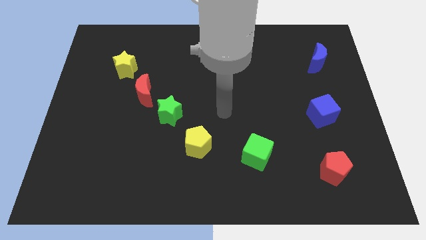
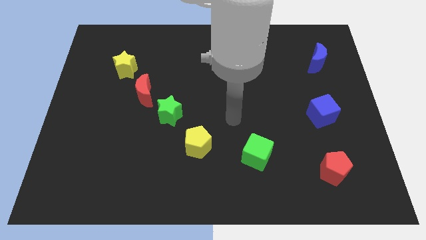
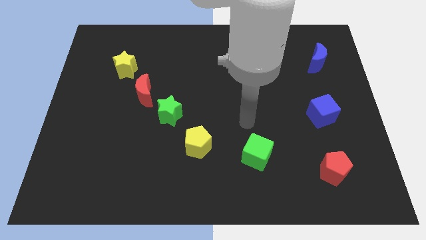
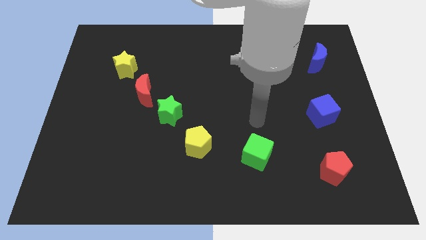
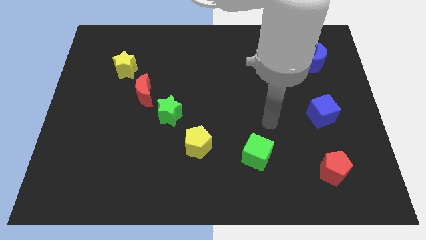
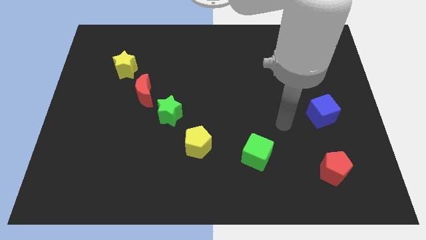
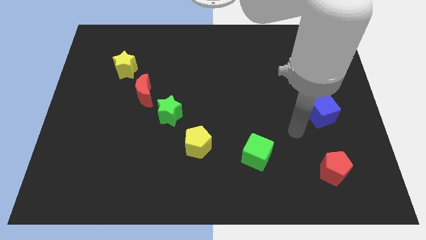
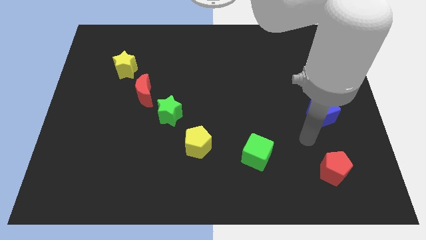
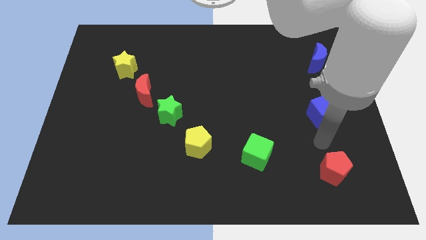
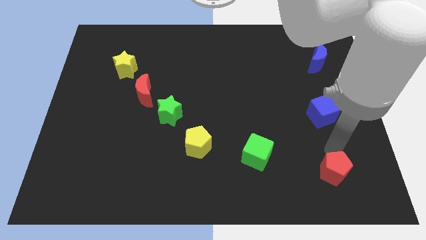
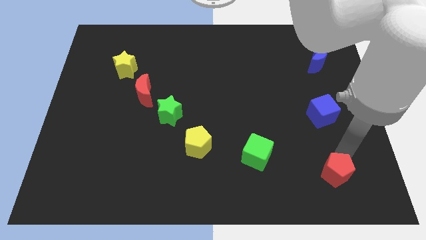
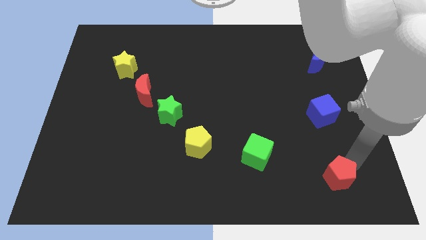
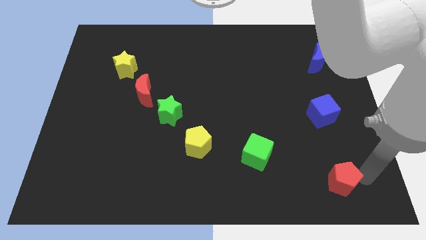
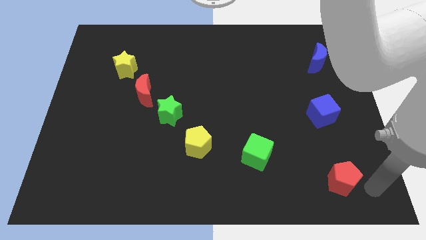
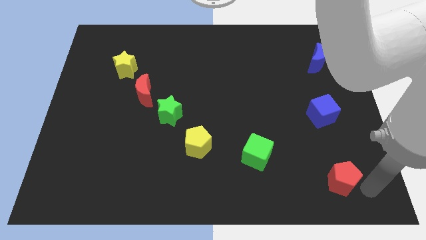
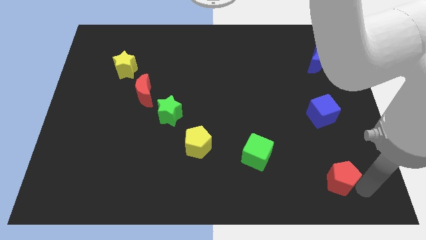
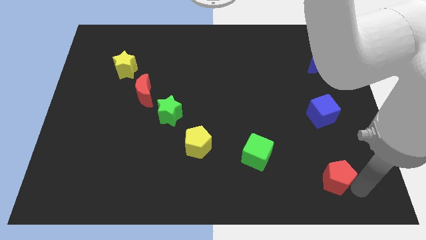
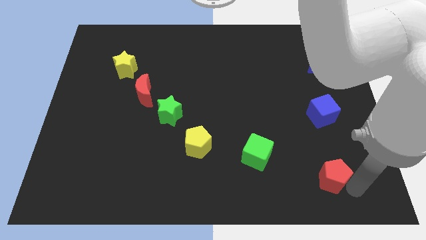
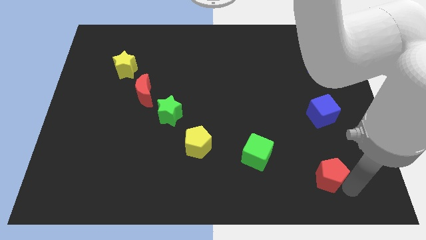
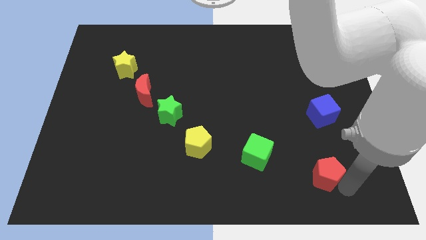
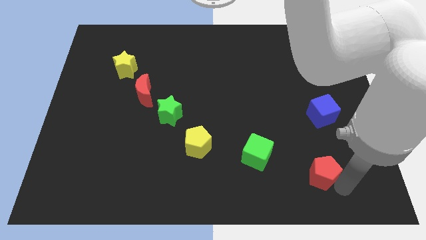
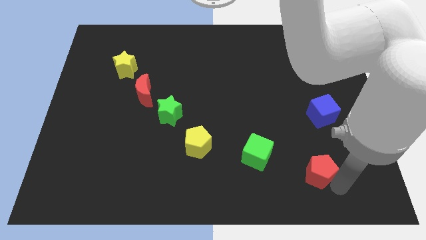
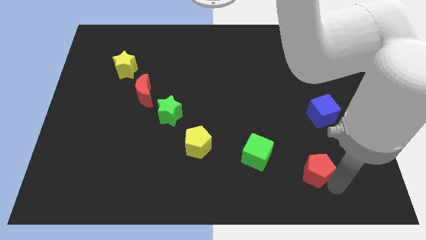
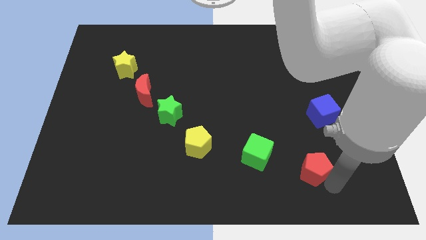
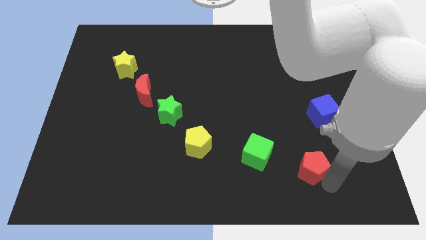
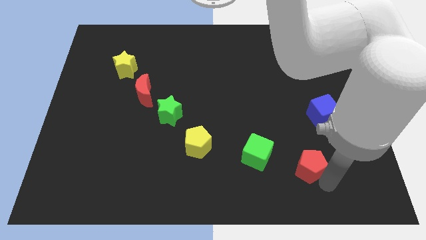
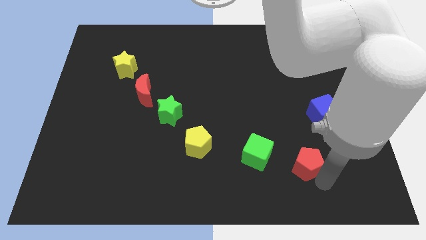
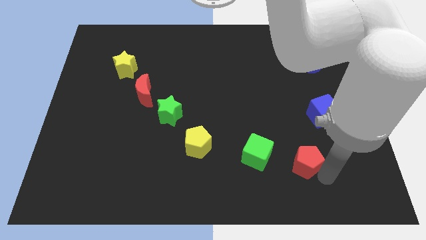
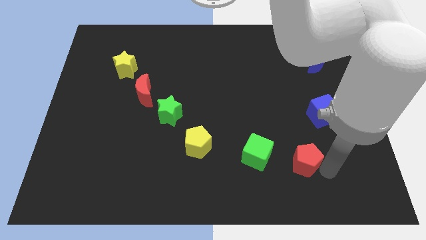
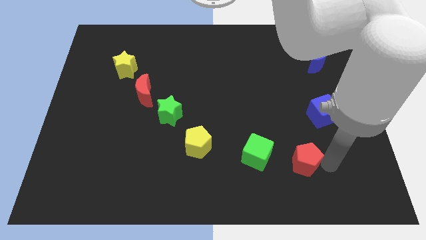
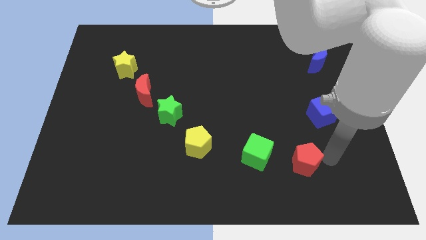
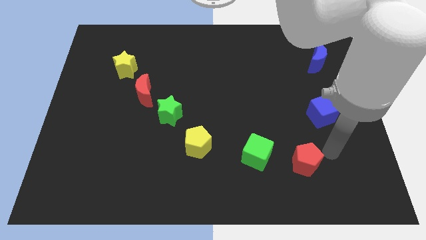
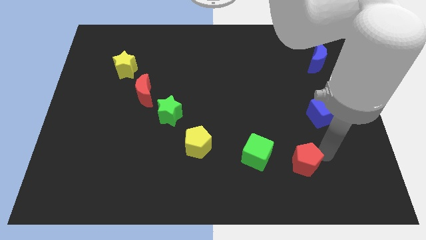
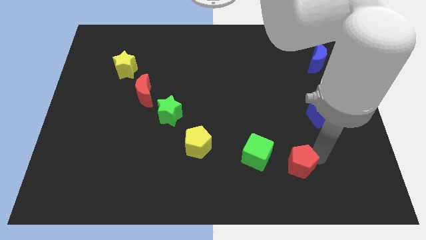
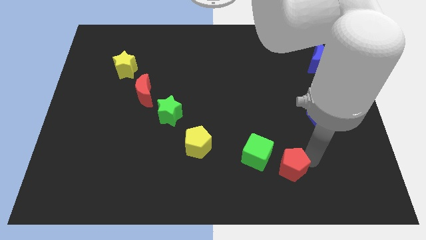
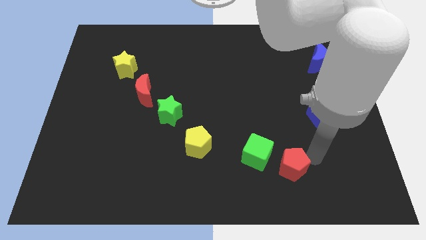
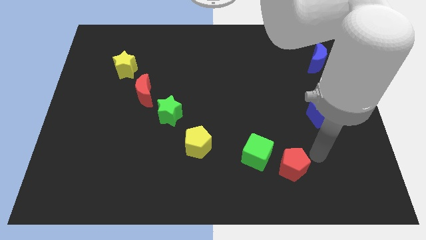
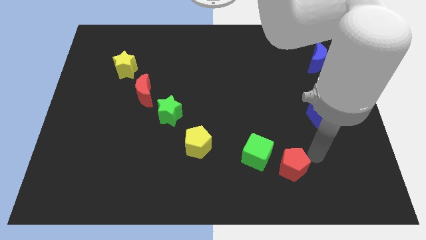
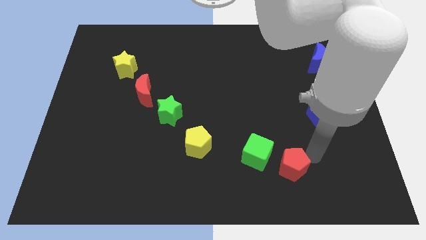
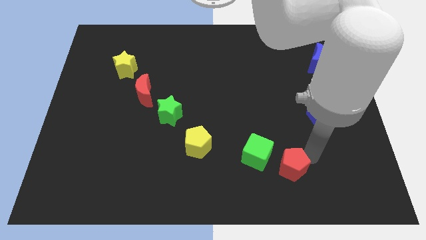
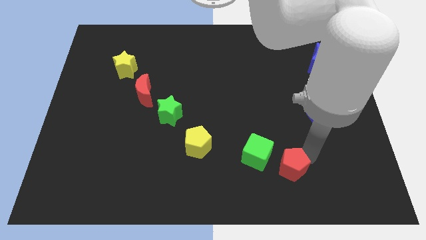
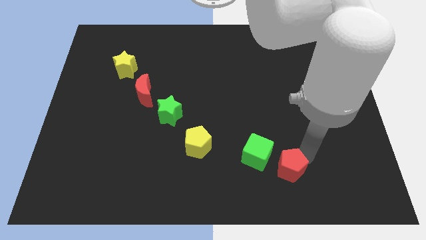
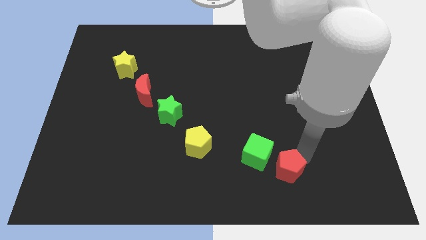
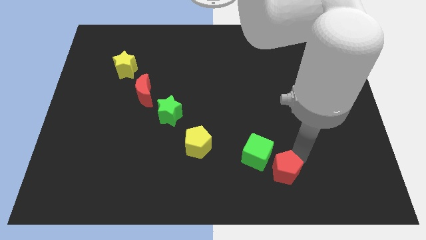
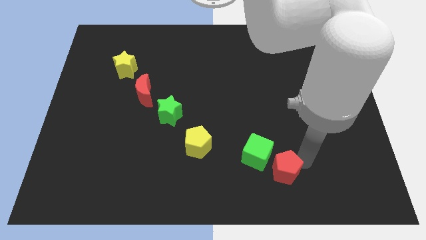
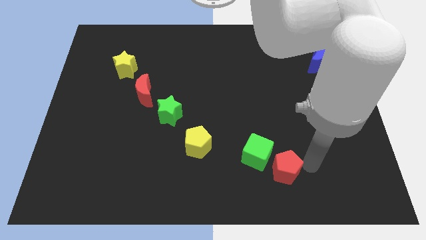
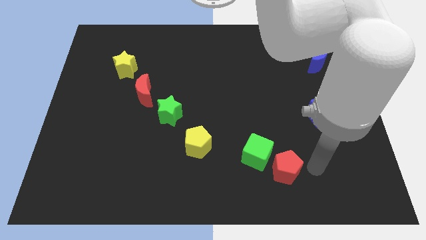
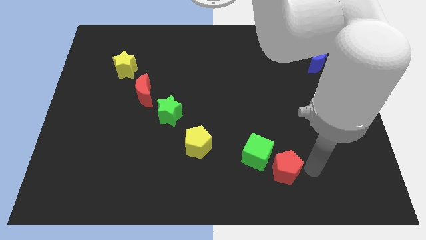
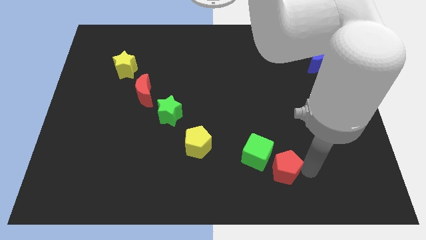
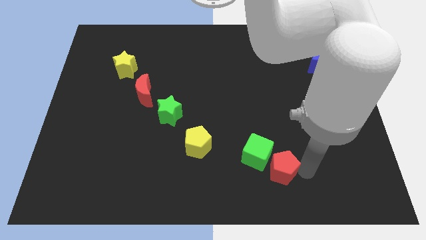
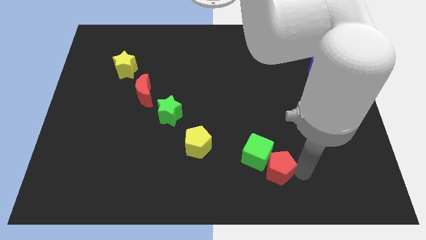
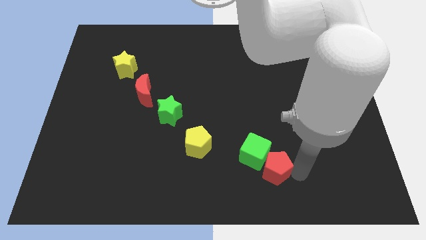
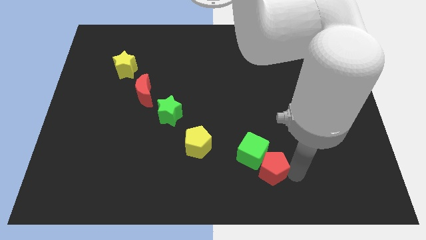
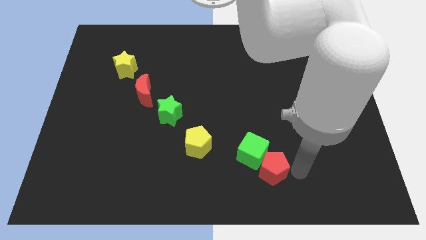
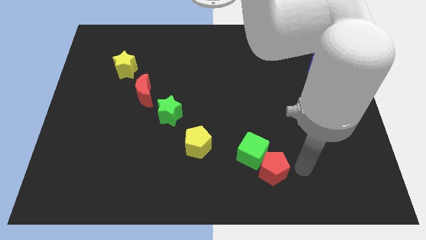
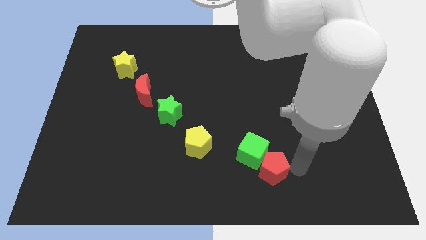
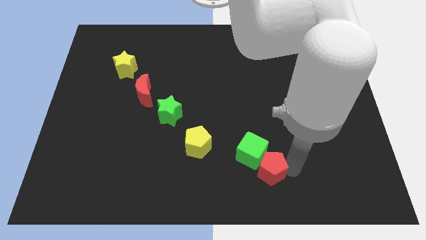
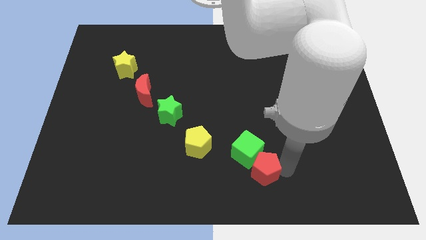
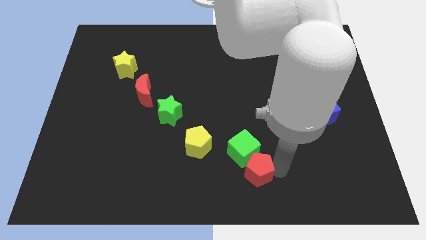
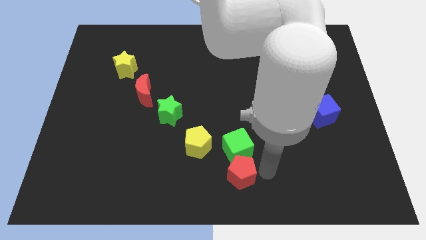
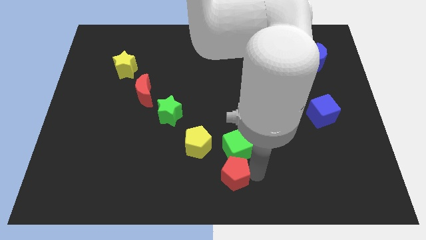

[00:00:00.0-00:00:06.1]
push the red pentagon left

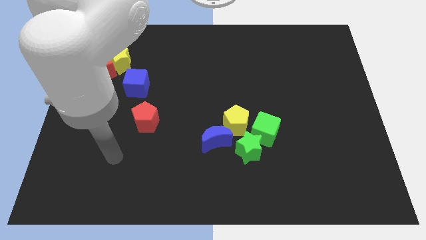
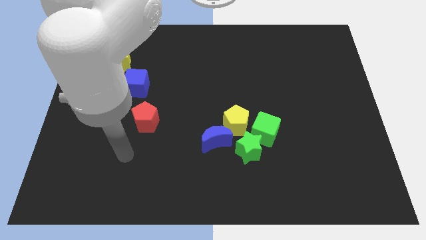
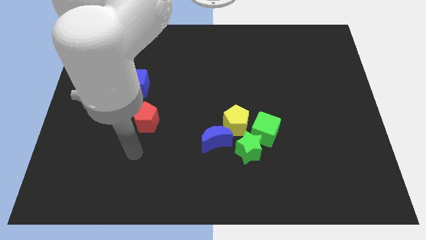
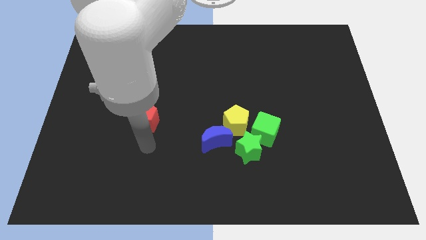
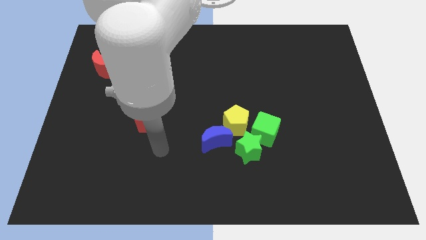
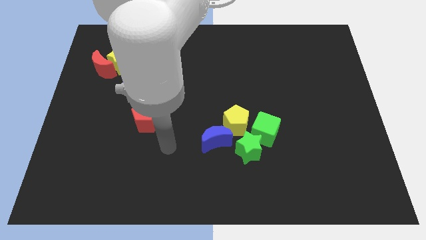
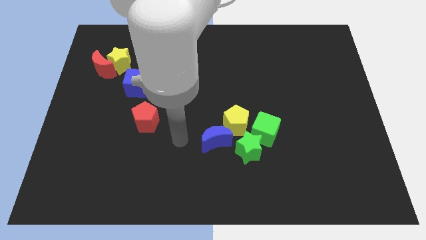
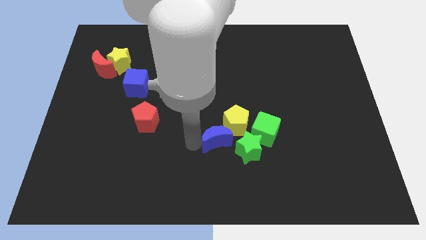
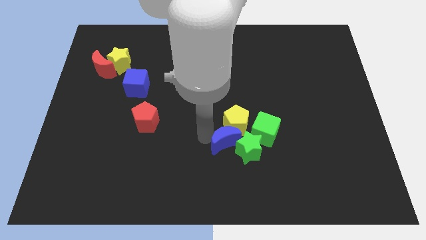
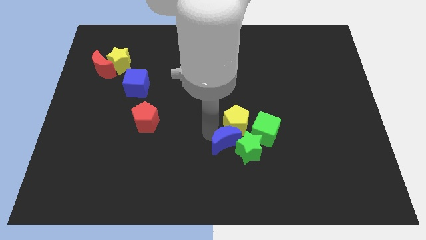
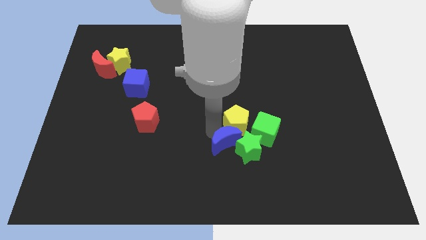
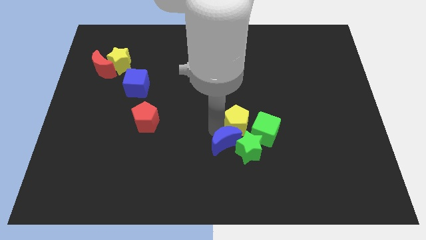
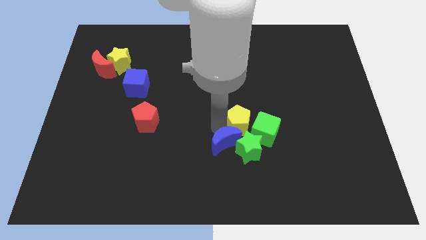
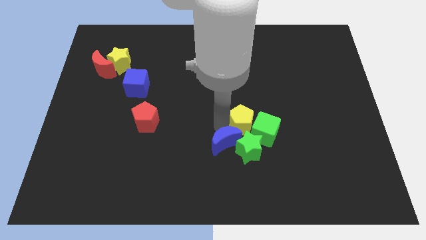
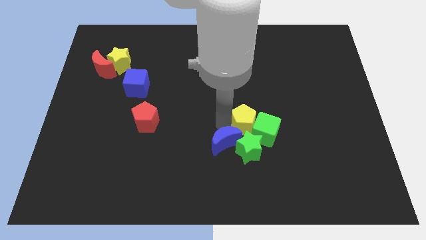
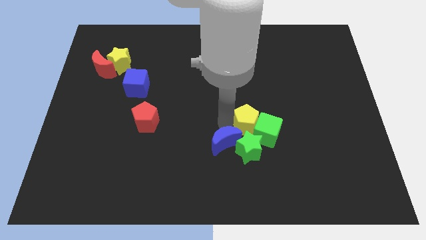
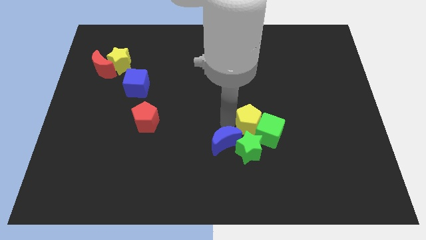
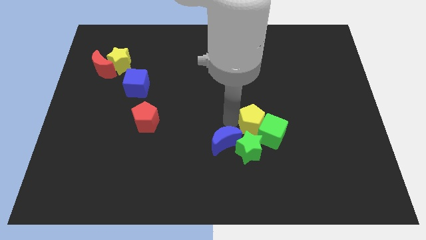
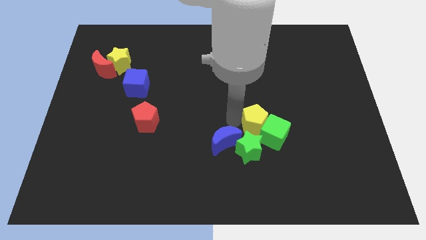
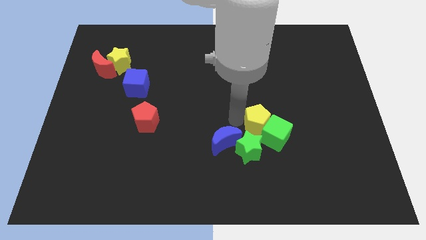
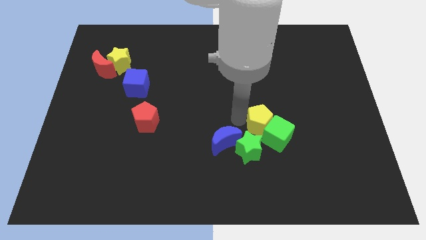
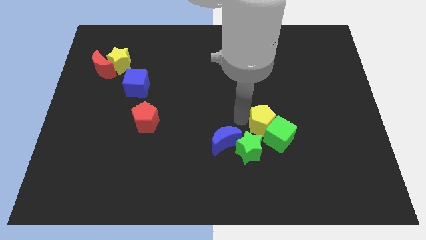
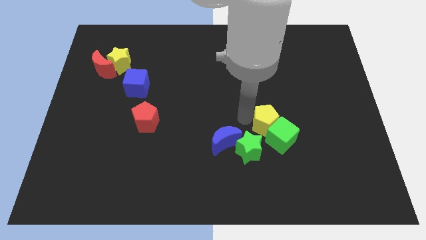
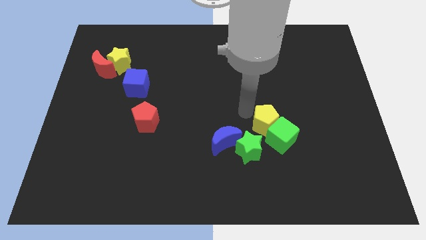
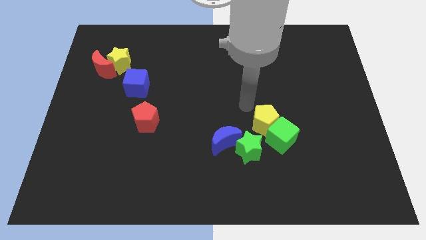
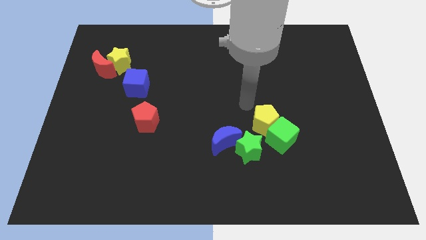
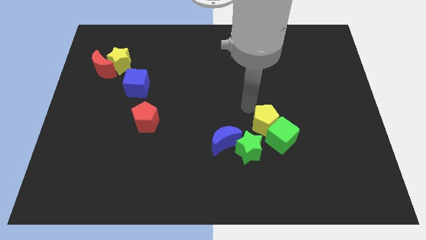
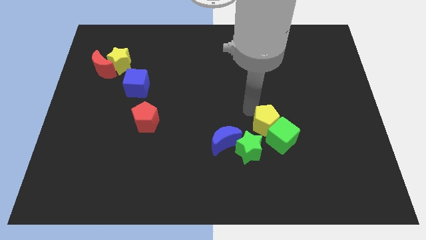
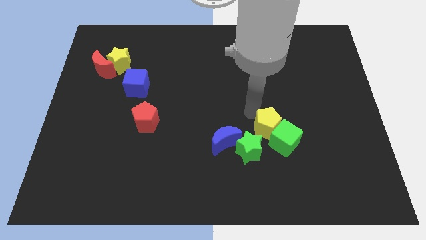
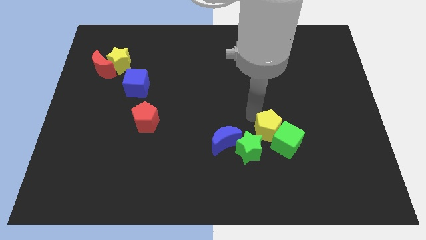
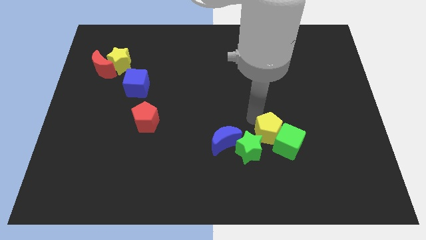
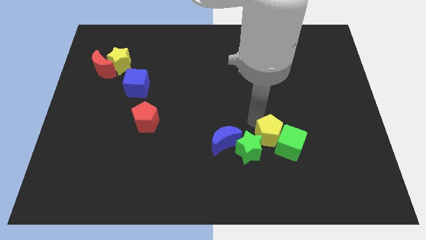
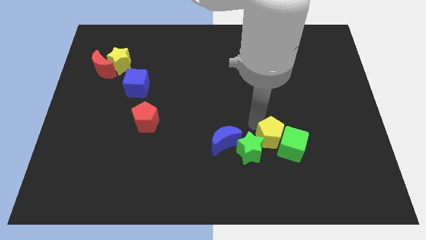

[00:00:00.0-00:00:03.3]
move the yellow pentagon diagonally down and to the right a little bit
